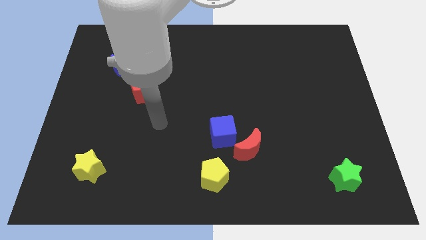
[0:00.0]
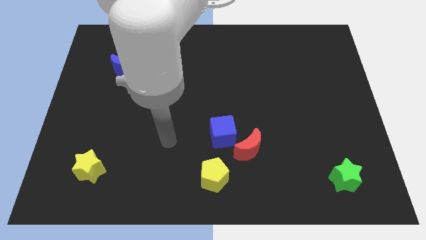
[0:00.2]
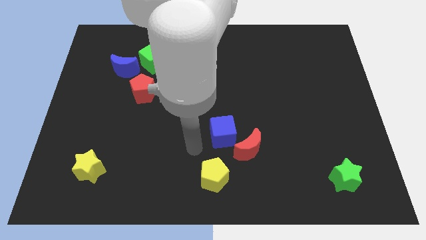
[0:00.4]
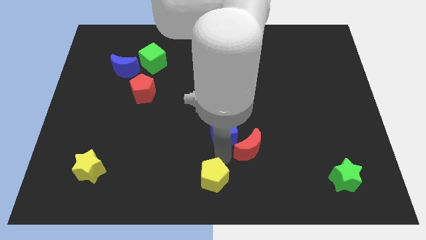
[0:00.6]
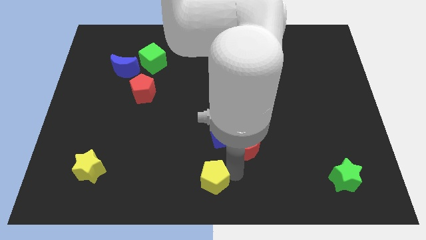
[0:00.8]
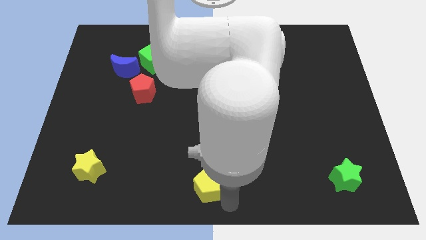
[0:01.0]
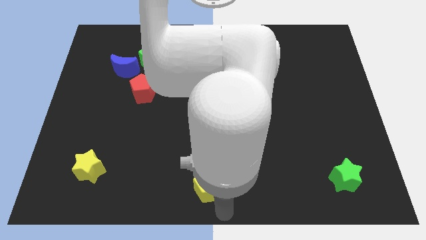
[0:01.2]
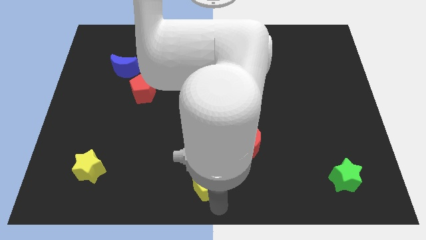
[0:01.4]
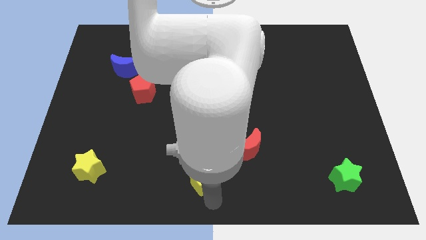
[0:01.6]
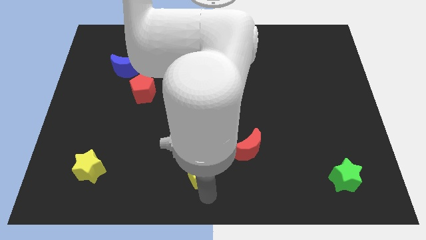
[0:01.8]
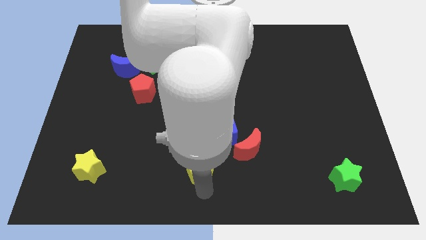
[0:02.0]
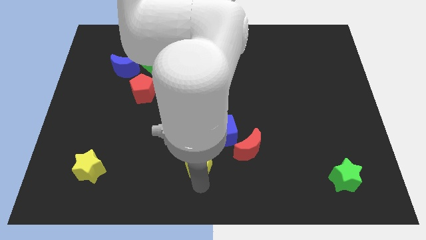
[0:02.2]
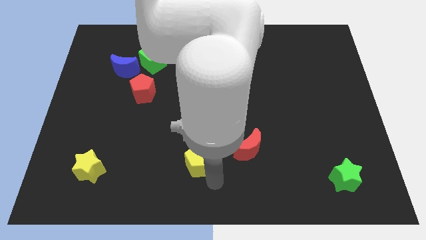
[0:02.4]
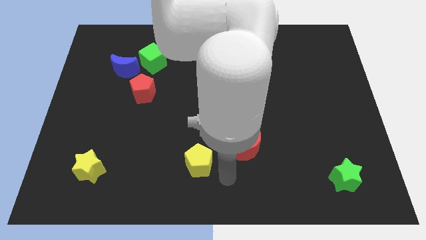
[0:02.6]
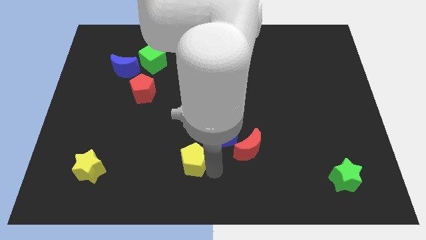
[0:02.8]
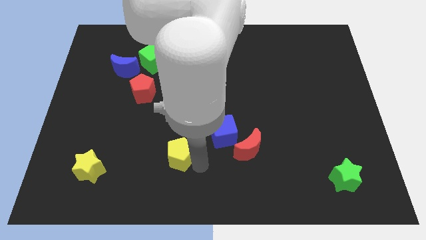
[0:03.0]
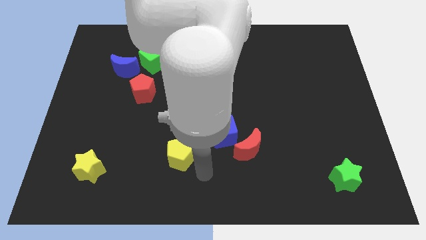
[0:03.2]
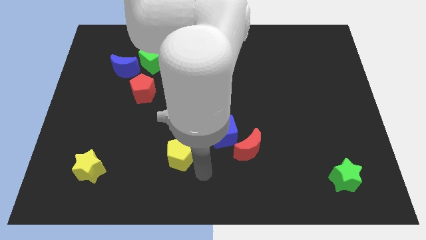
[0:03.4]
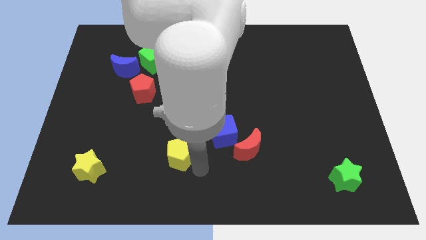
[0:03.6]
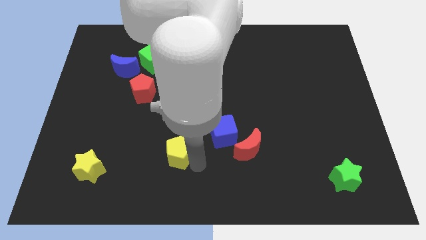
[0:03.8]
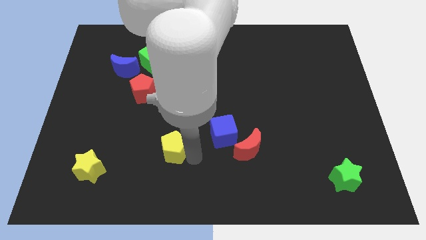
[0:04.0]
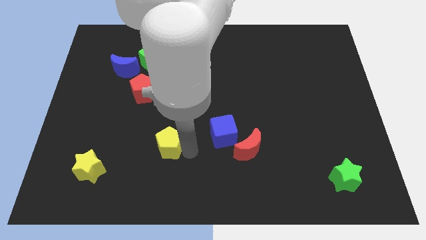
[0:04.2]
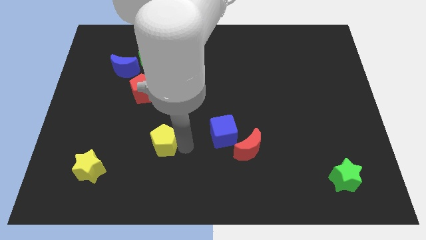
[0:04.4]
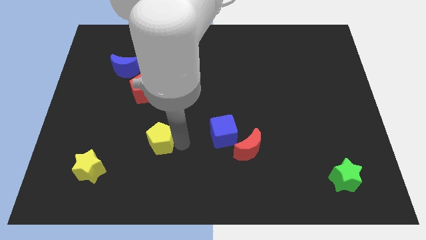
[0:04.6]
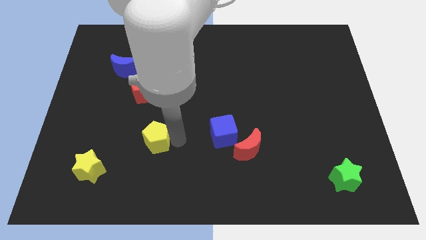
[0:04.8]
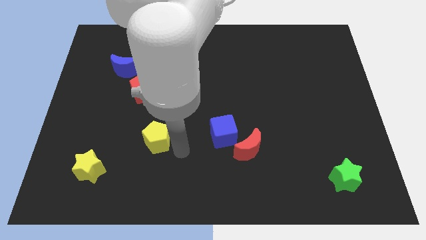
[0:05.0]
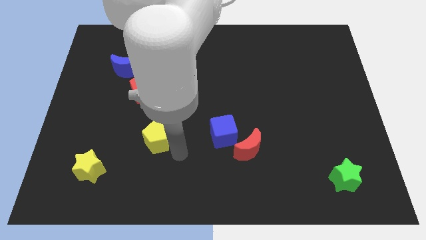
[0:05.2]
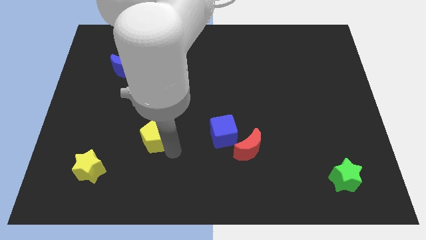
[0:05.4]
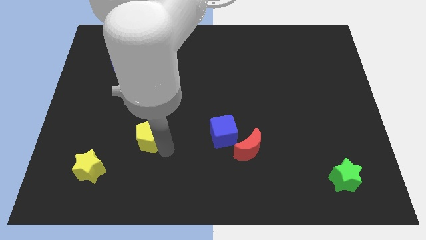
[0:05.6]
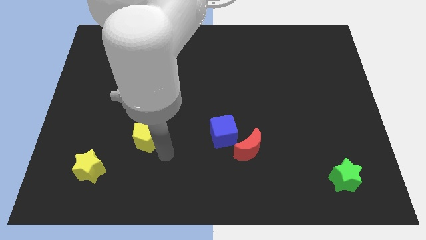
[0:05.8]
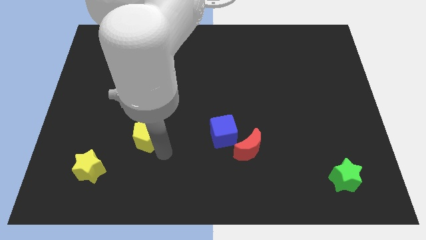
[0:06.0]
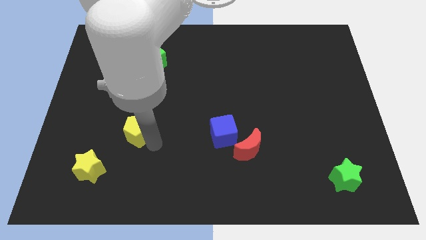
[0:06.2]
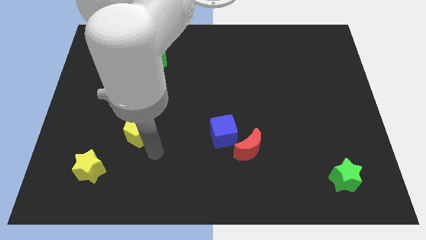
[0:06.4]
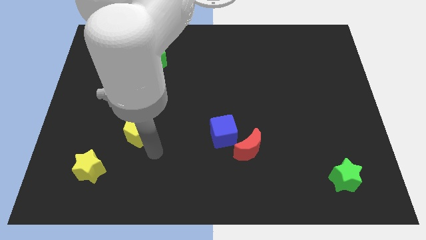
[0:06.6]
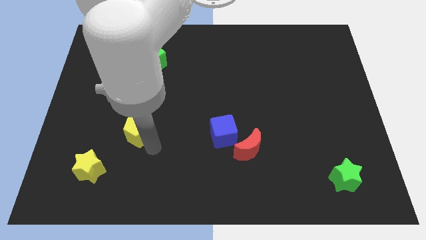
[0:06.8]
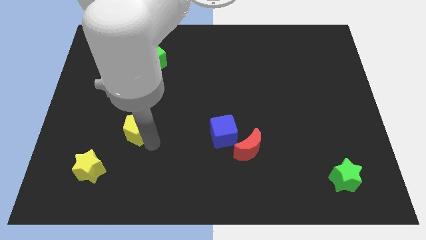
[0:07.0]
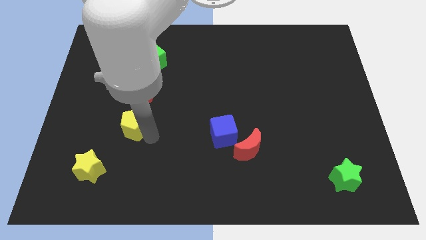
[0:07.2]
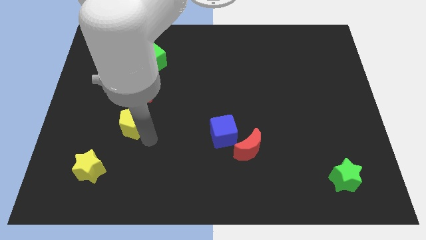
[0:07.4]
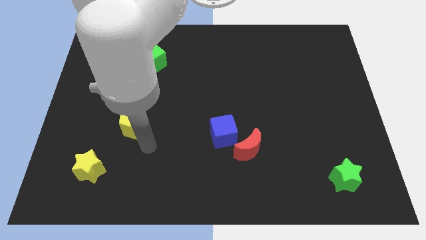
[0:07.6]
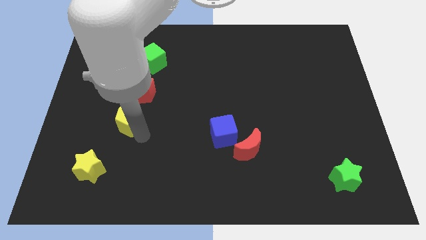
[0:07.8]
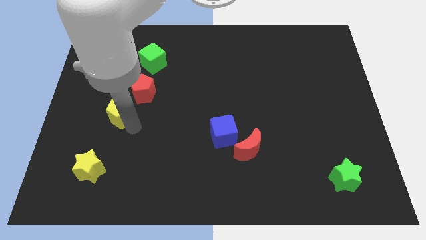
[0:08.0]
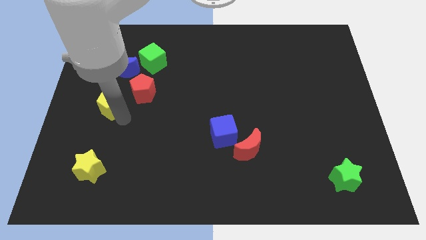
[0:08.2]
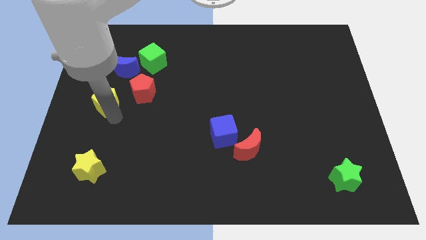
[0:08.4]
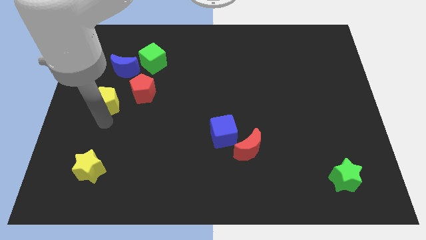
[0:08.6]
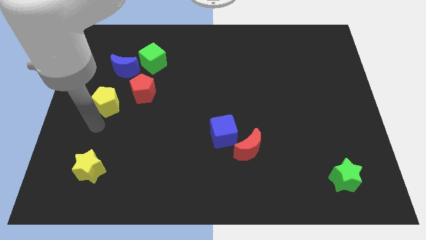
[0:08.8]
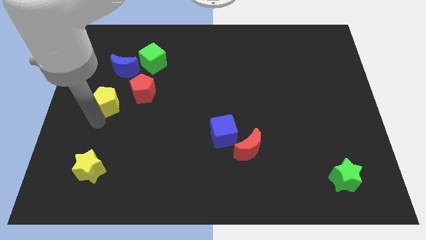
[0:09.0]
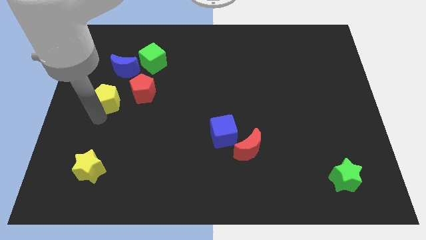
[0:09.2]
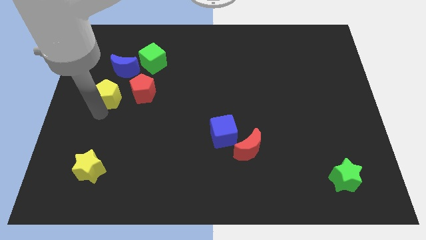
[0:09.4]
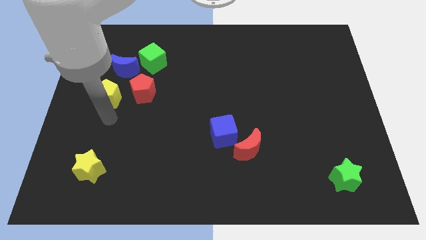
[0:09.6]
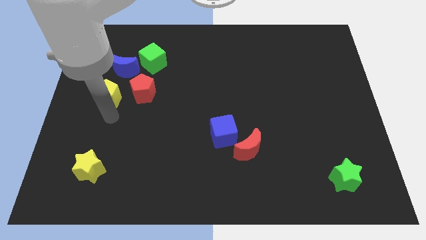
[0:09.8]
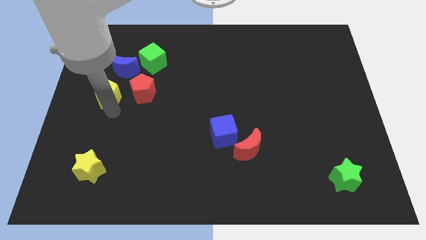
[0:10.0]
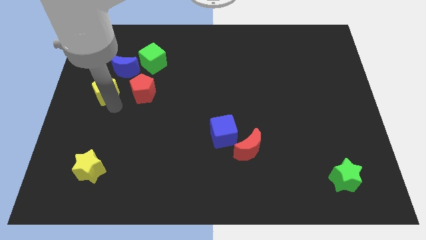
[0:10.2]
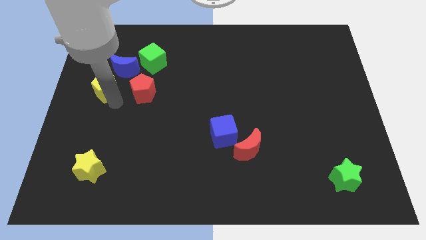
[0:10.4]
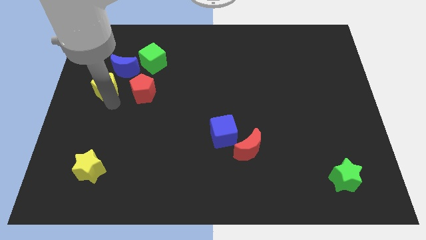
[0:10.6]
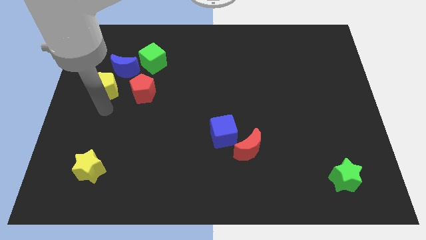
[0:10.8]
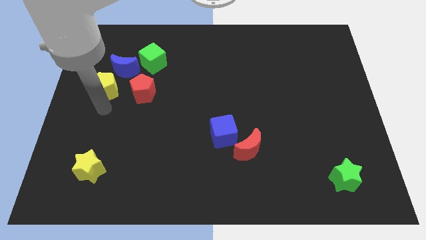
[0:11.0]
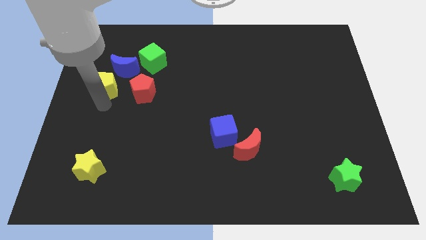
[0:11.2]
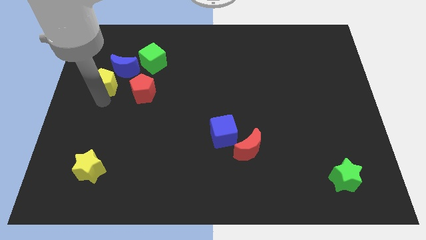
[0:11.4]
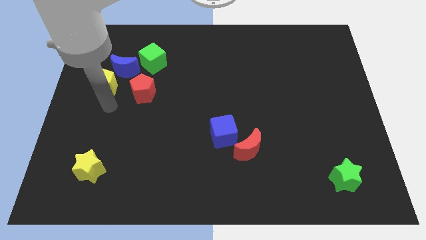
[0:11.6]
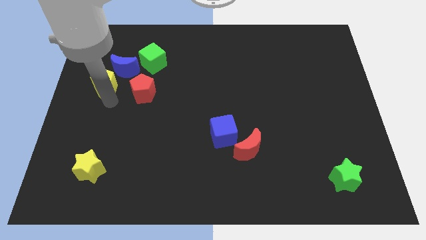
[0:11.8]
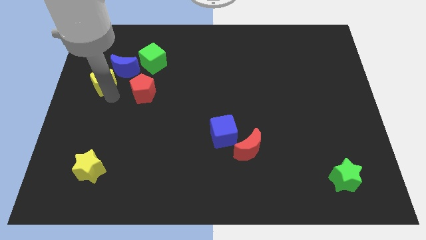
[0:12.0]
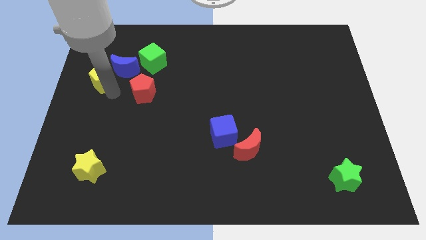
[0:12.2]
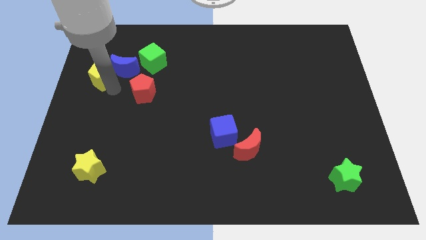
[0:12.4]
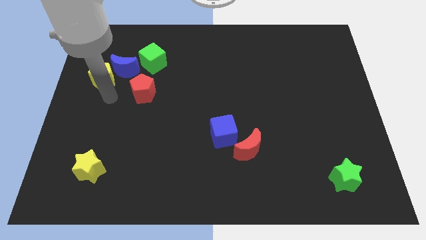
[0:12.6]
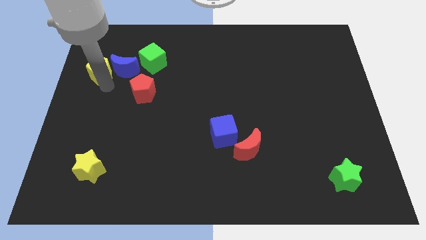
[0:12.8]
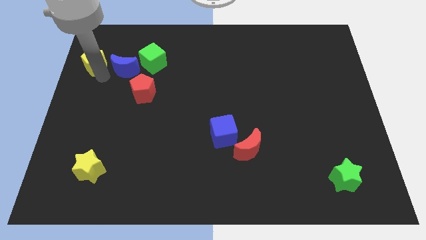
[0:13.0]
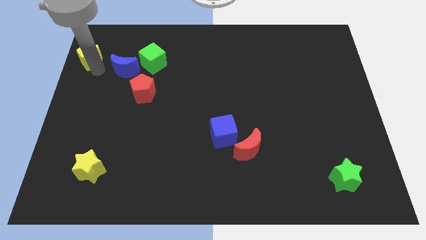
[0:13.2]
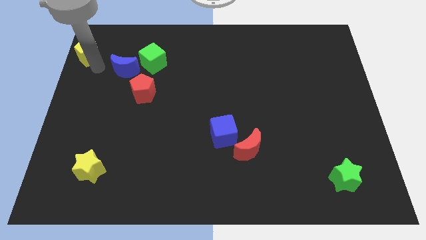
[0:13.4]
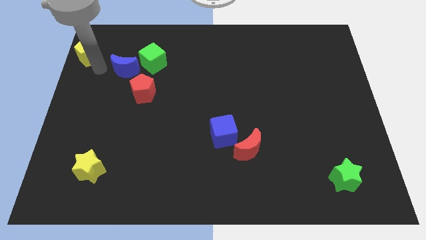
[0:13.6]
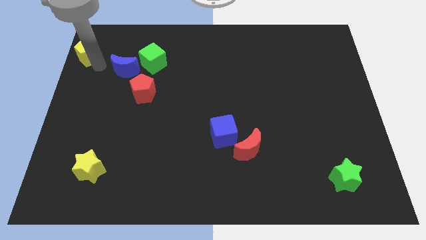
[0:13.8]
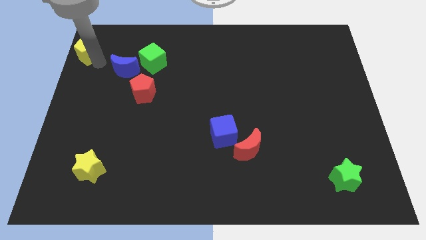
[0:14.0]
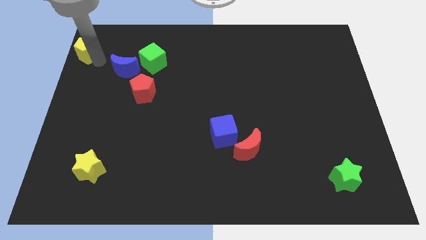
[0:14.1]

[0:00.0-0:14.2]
put the yellow pentagon to the top left
